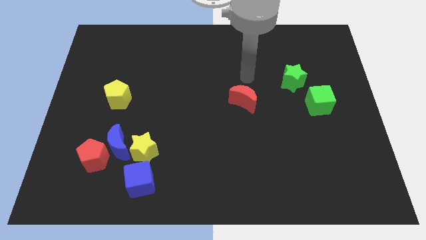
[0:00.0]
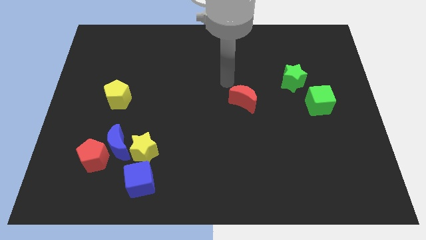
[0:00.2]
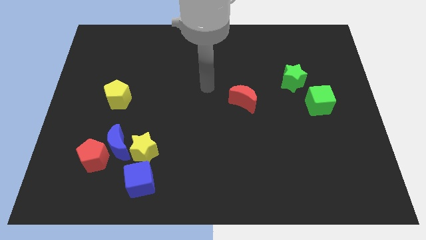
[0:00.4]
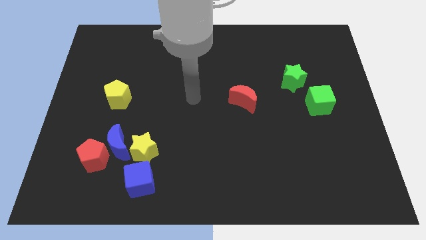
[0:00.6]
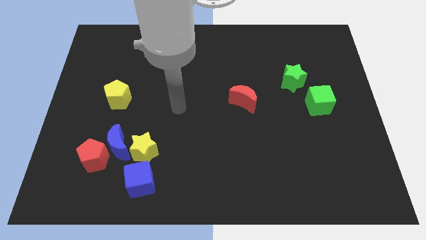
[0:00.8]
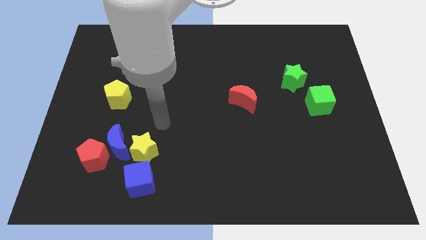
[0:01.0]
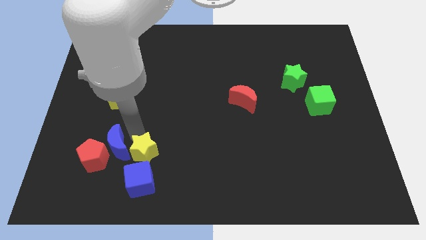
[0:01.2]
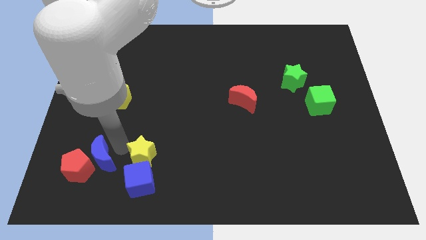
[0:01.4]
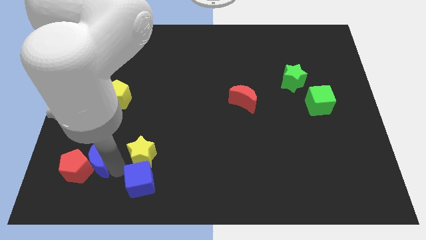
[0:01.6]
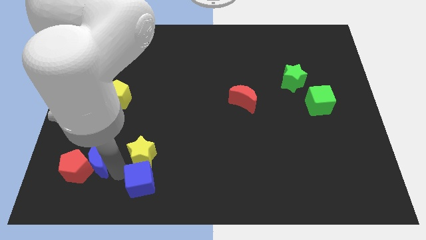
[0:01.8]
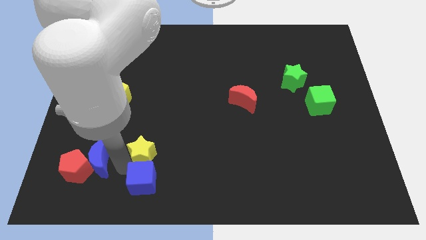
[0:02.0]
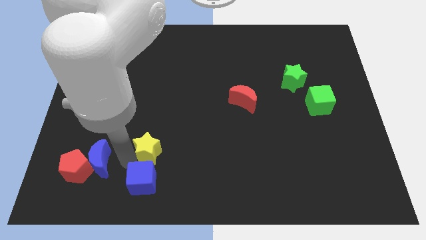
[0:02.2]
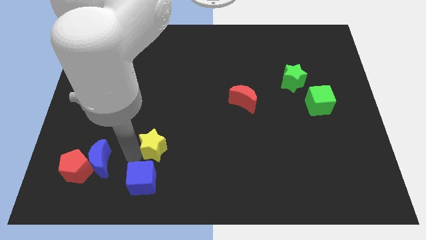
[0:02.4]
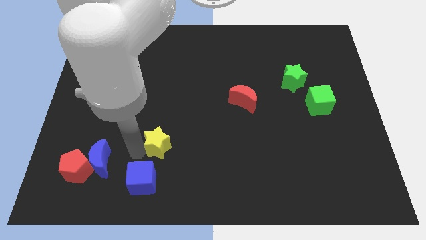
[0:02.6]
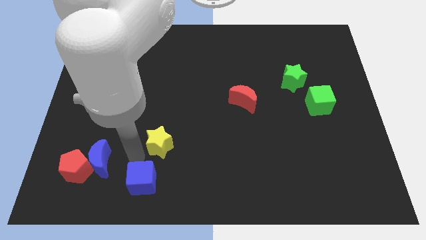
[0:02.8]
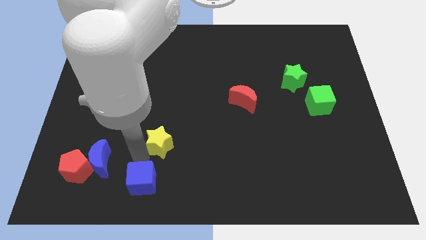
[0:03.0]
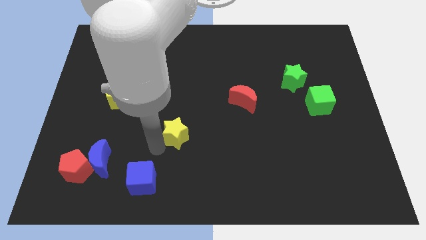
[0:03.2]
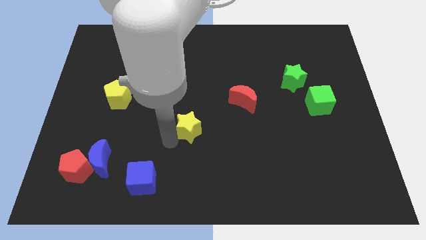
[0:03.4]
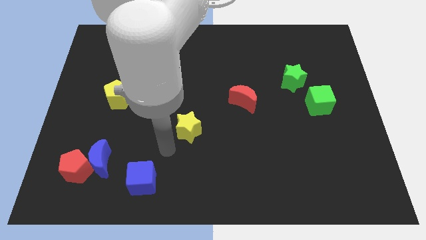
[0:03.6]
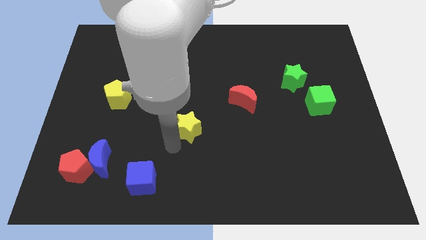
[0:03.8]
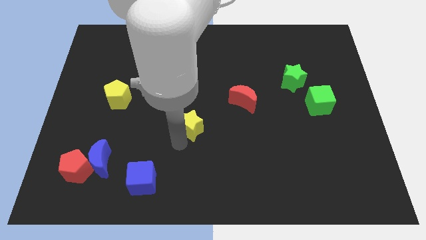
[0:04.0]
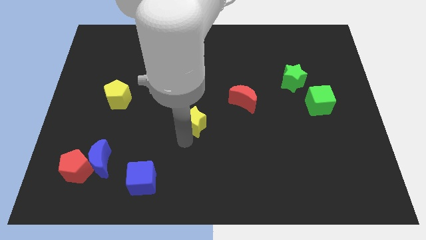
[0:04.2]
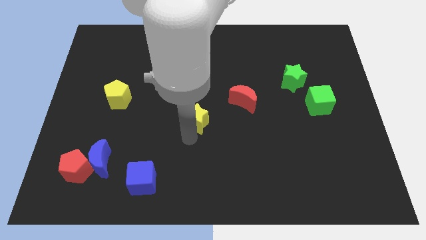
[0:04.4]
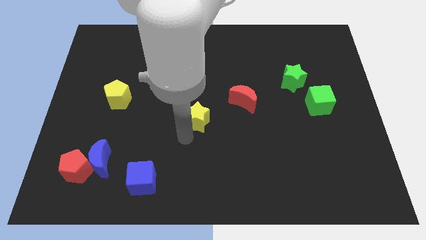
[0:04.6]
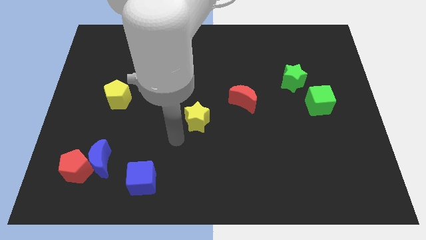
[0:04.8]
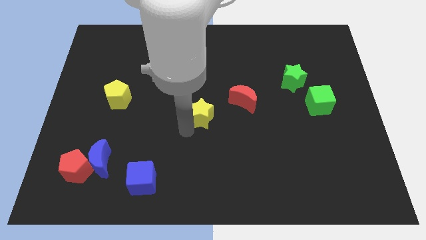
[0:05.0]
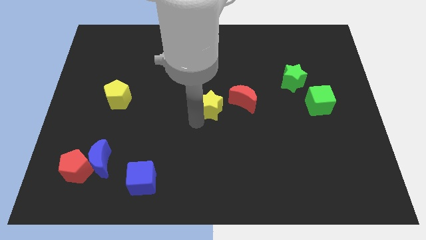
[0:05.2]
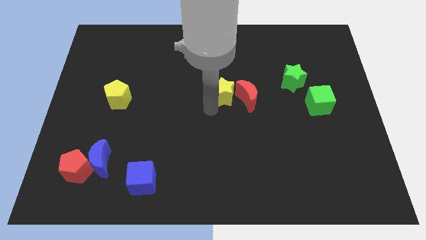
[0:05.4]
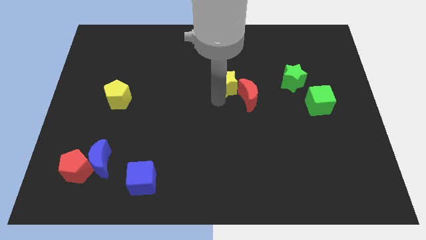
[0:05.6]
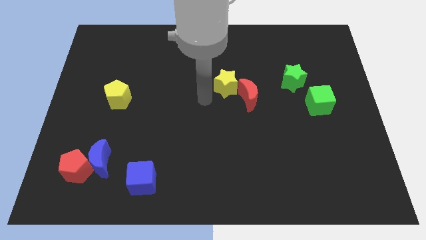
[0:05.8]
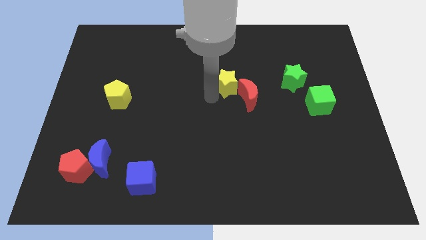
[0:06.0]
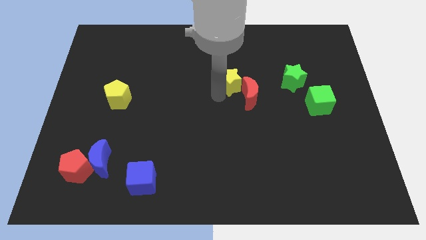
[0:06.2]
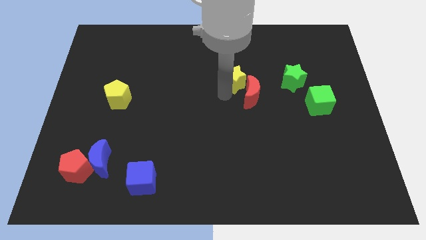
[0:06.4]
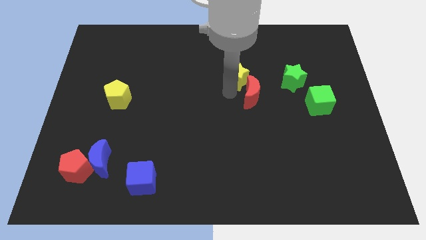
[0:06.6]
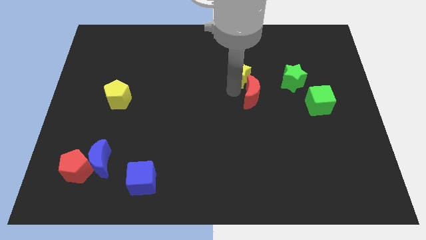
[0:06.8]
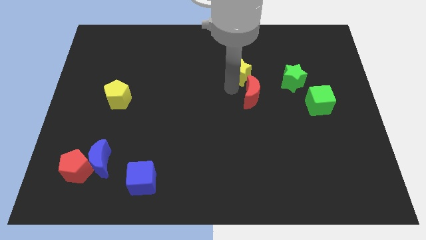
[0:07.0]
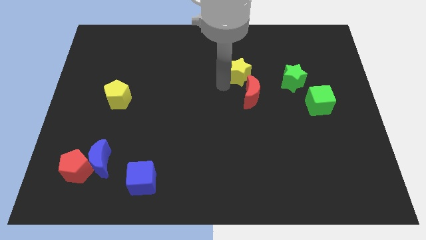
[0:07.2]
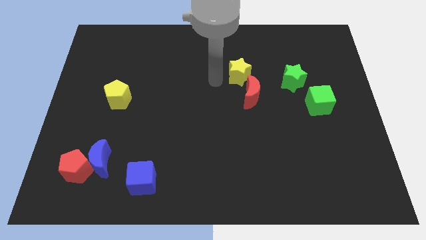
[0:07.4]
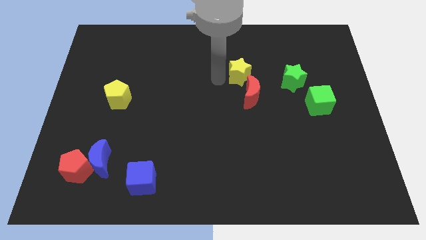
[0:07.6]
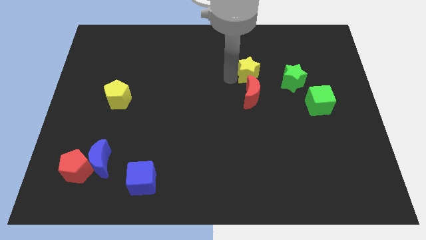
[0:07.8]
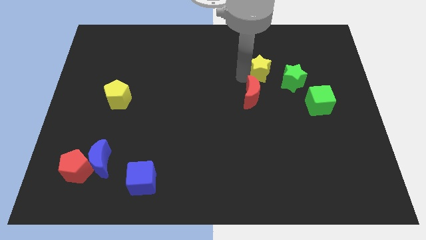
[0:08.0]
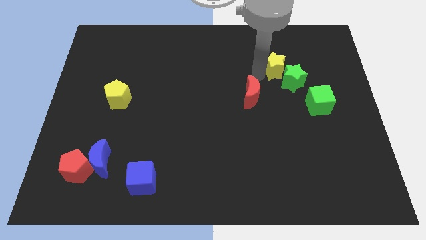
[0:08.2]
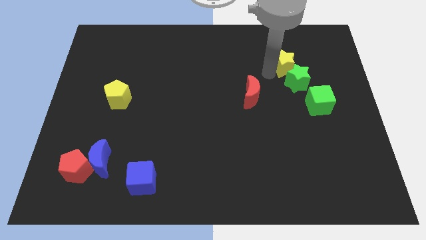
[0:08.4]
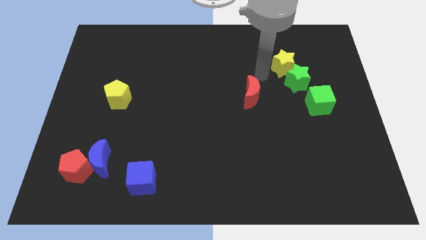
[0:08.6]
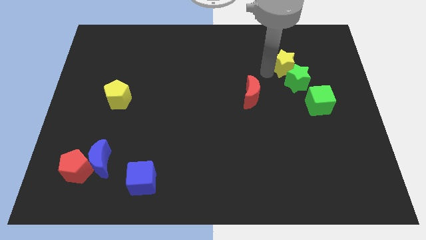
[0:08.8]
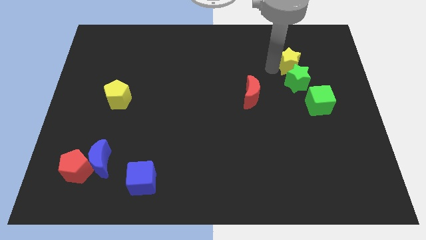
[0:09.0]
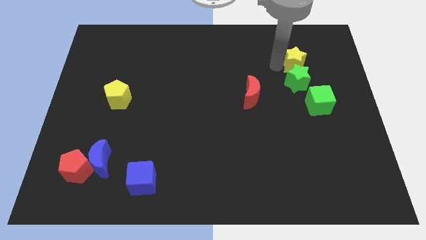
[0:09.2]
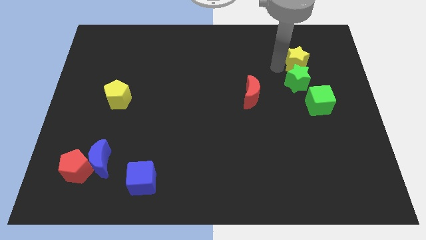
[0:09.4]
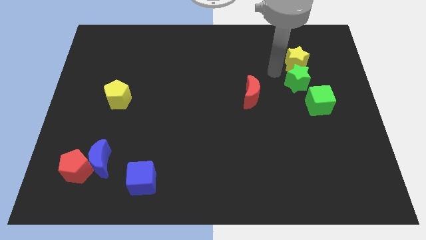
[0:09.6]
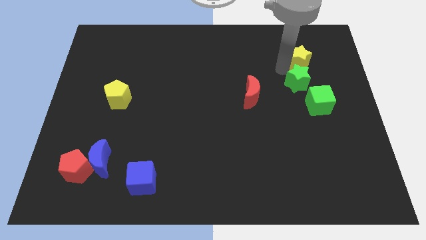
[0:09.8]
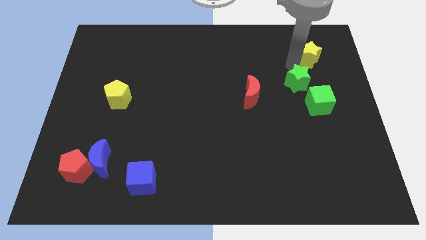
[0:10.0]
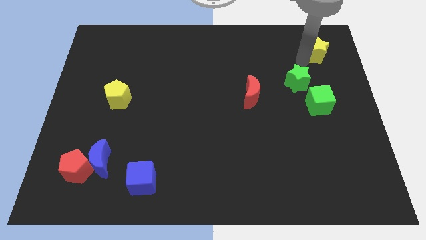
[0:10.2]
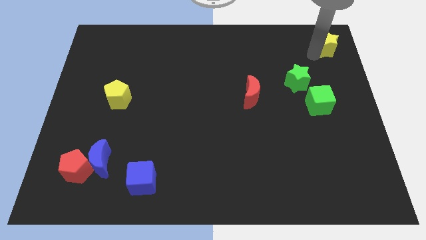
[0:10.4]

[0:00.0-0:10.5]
put the yellow star to the top right

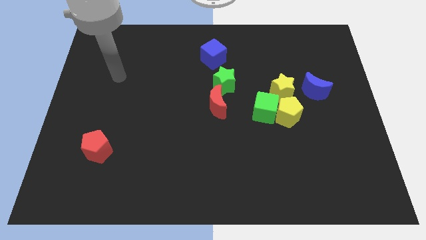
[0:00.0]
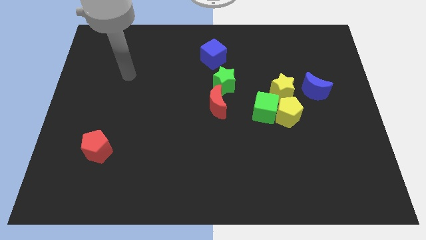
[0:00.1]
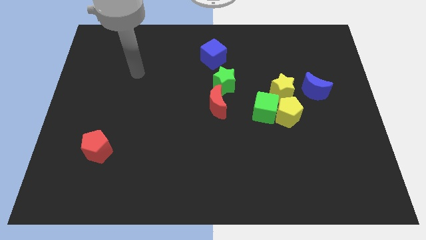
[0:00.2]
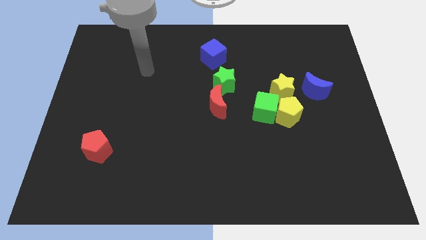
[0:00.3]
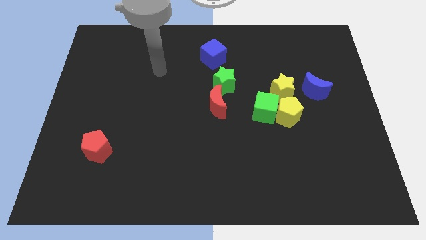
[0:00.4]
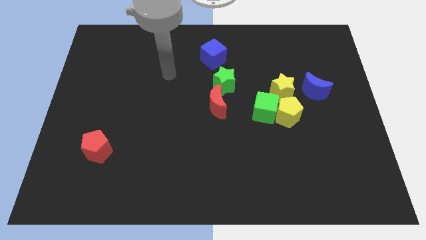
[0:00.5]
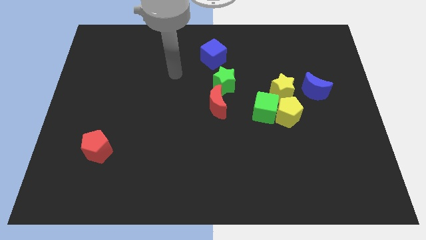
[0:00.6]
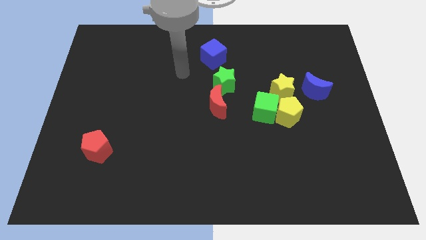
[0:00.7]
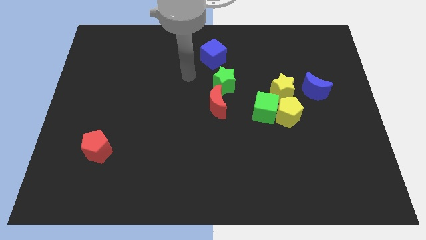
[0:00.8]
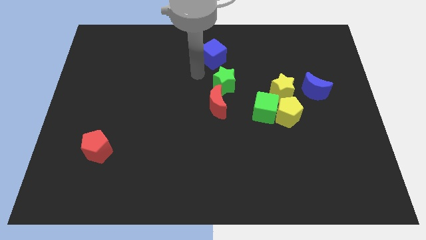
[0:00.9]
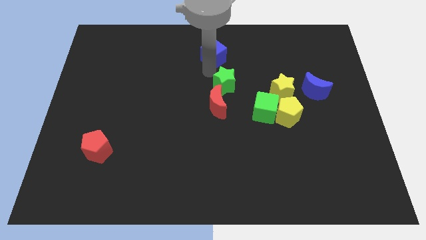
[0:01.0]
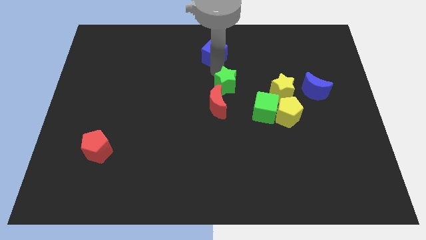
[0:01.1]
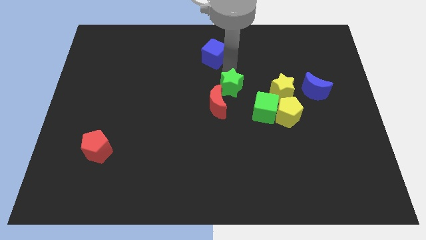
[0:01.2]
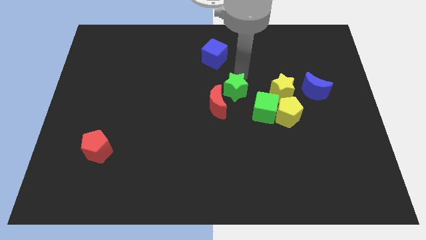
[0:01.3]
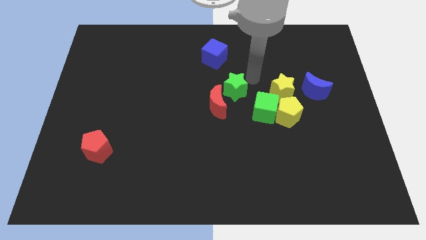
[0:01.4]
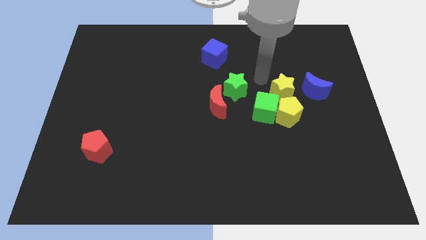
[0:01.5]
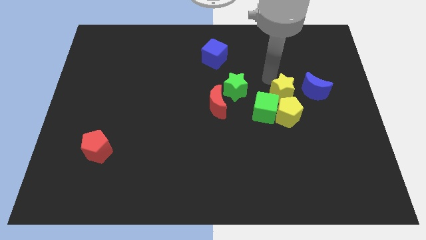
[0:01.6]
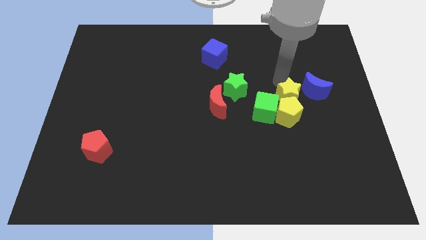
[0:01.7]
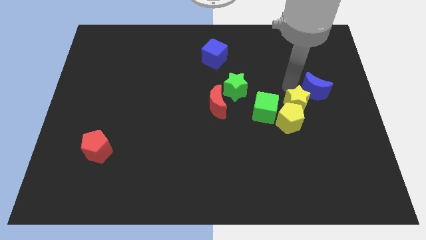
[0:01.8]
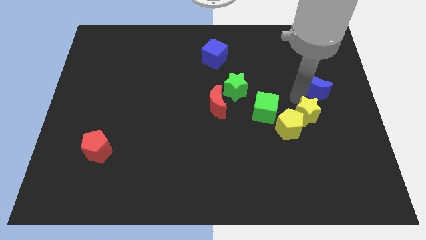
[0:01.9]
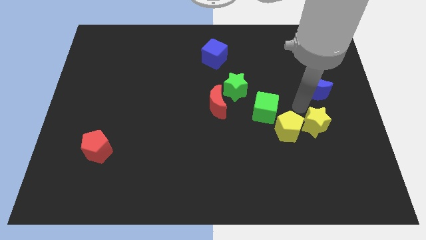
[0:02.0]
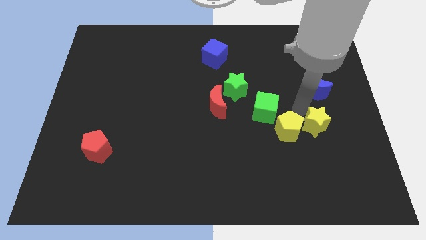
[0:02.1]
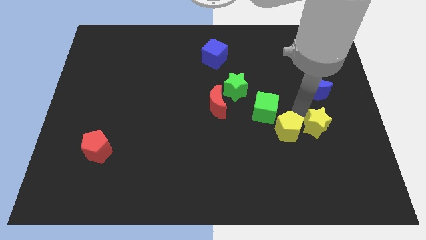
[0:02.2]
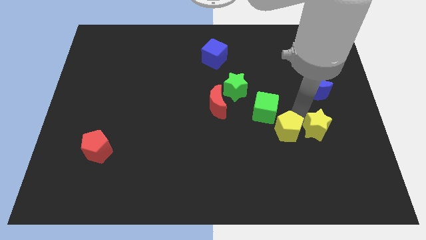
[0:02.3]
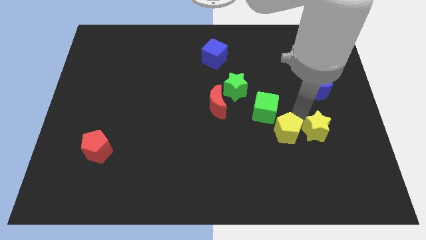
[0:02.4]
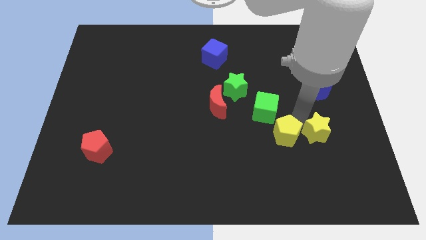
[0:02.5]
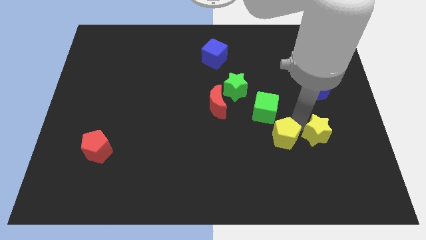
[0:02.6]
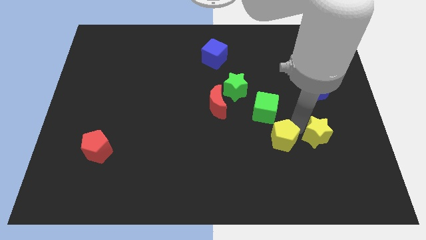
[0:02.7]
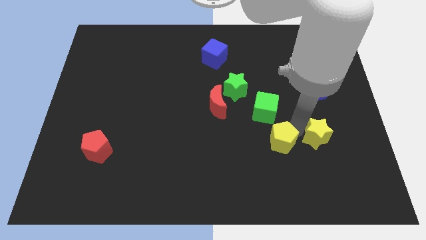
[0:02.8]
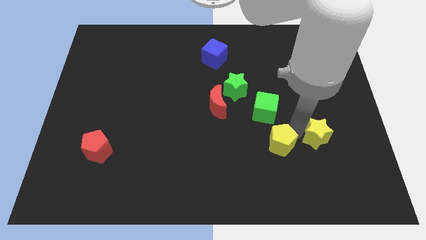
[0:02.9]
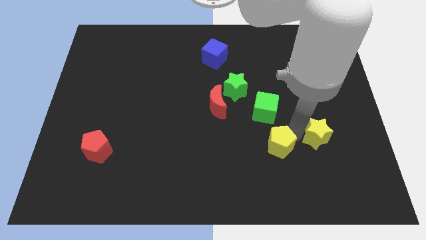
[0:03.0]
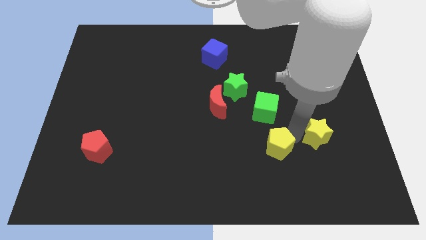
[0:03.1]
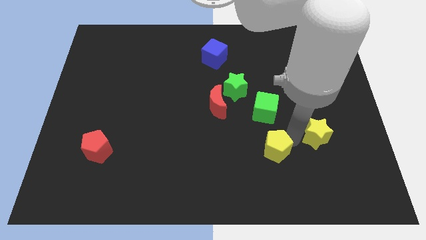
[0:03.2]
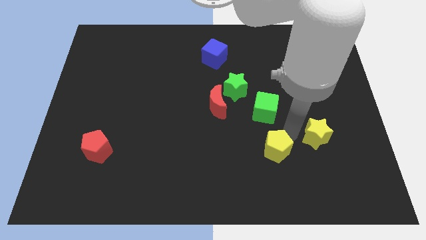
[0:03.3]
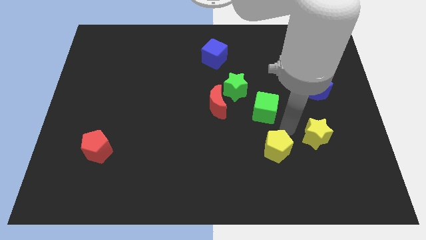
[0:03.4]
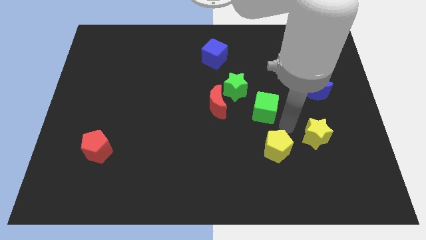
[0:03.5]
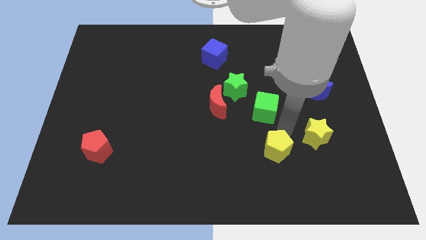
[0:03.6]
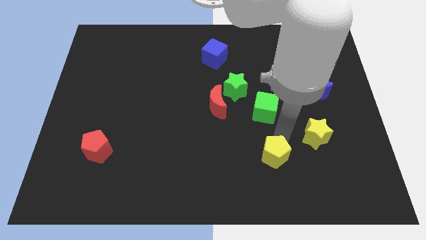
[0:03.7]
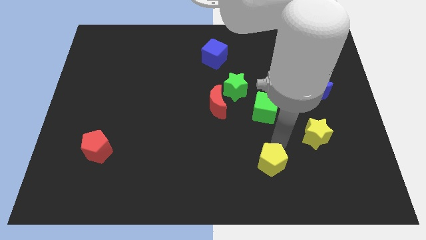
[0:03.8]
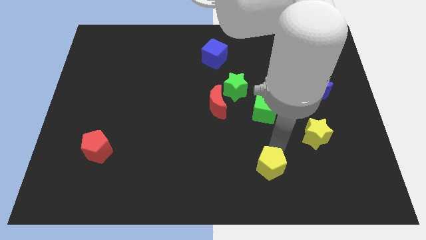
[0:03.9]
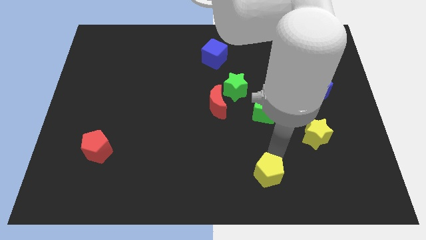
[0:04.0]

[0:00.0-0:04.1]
move the yellow pentagon to the bottom side
